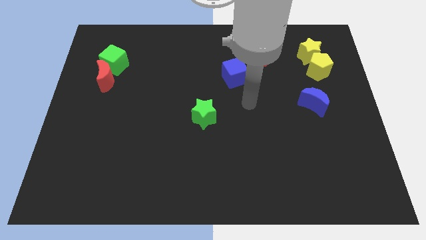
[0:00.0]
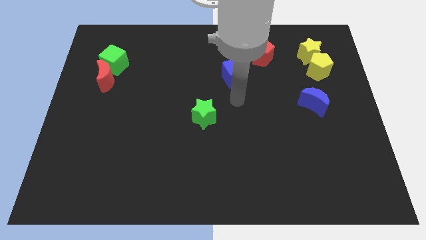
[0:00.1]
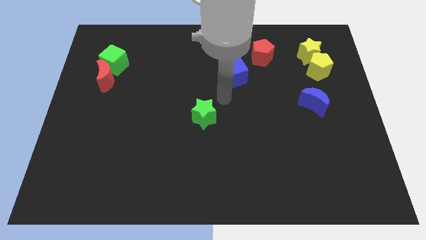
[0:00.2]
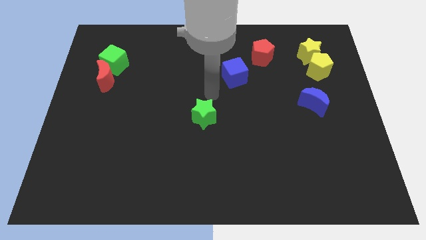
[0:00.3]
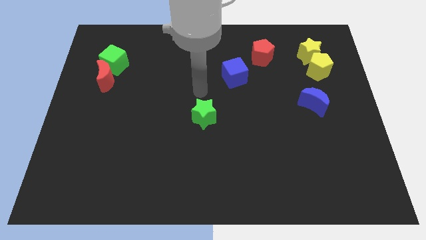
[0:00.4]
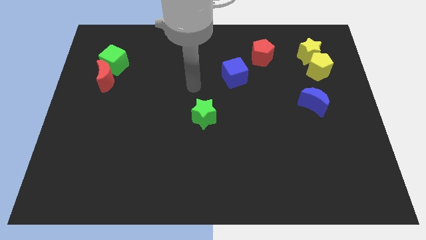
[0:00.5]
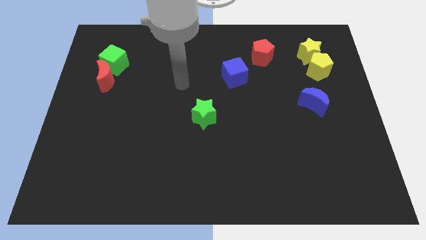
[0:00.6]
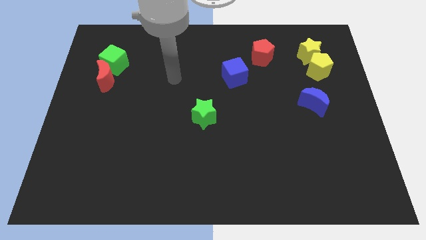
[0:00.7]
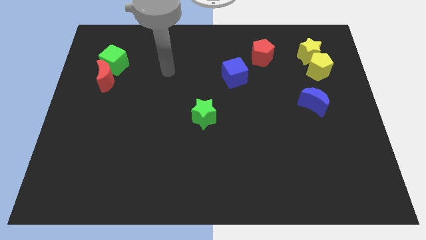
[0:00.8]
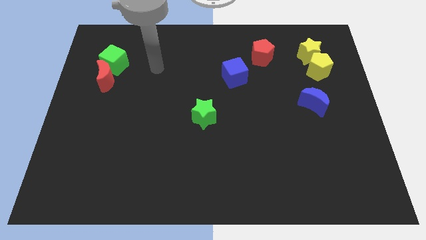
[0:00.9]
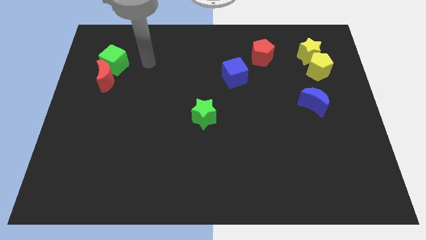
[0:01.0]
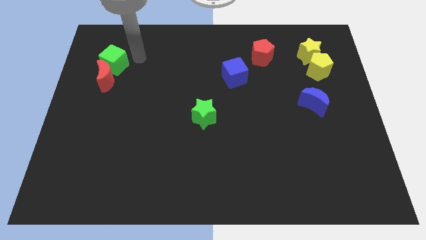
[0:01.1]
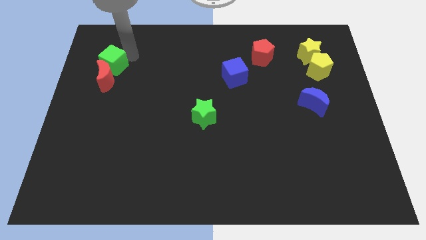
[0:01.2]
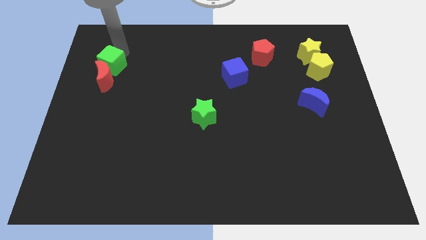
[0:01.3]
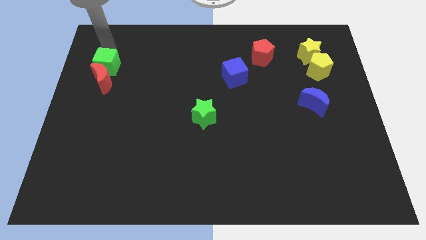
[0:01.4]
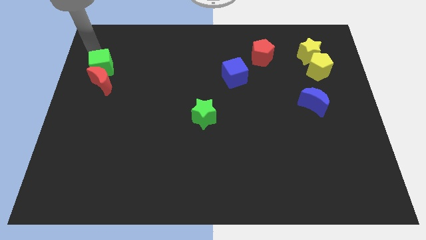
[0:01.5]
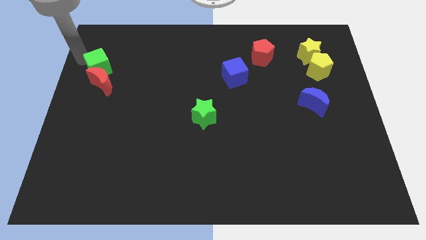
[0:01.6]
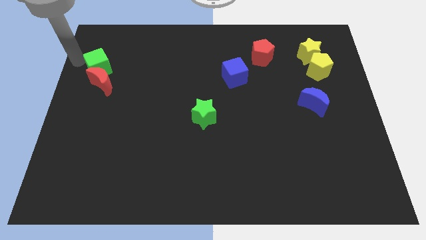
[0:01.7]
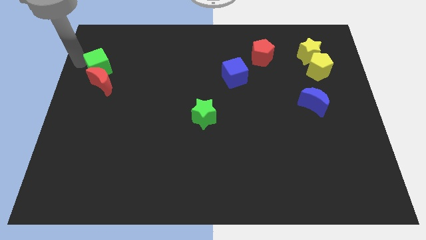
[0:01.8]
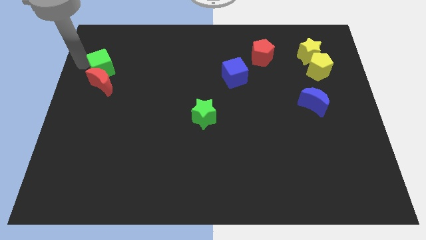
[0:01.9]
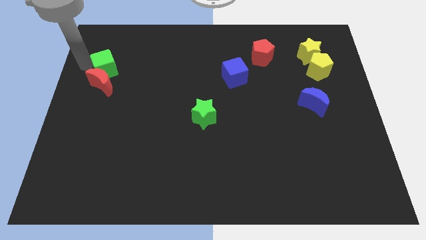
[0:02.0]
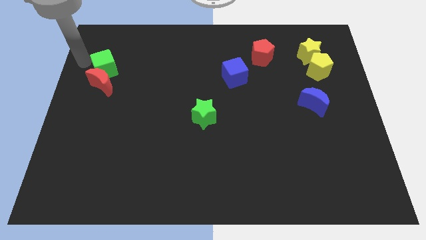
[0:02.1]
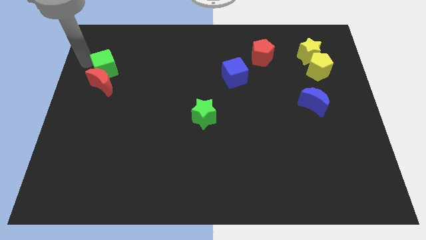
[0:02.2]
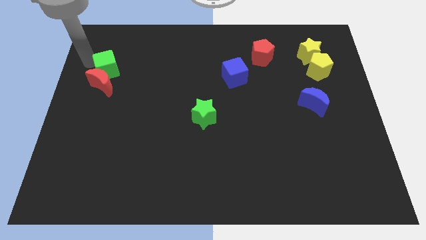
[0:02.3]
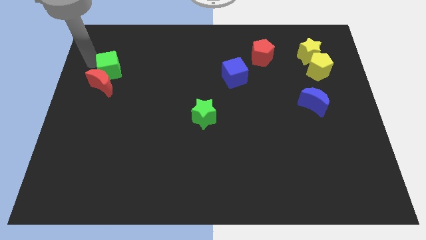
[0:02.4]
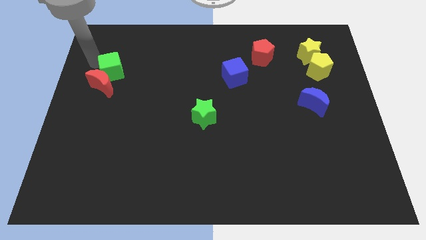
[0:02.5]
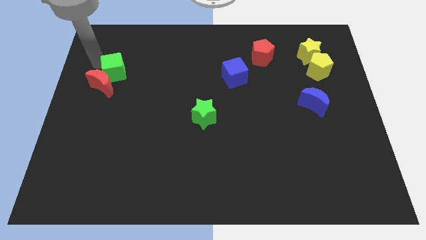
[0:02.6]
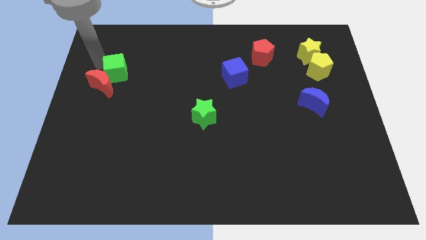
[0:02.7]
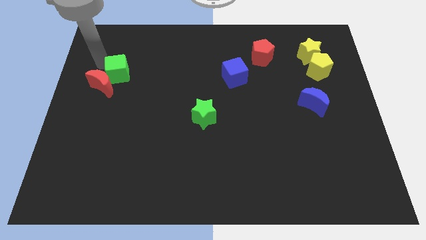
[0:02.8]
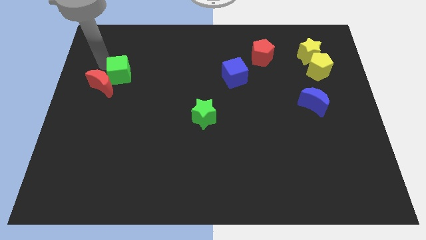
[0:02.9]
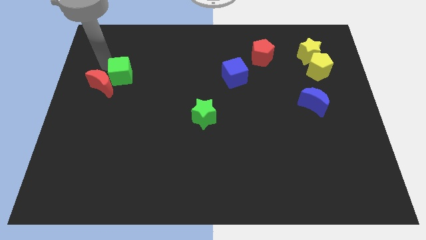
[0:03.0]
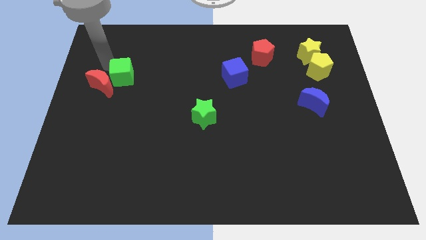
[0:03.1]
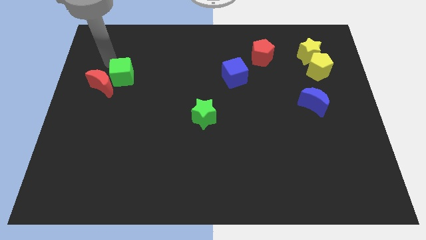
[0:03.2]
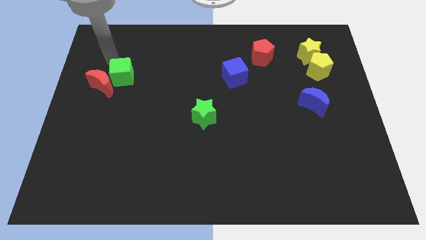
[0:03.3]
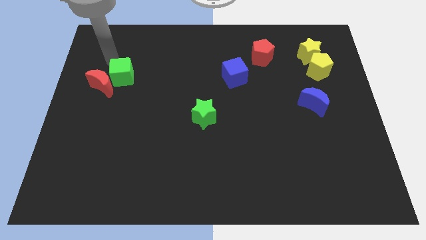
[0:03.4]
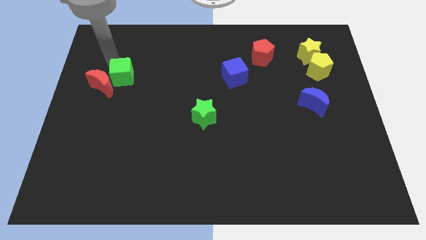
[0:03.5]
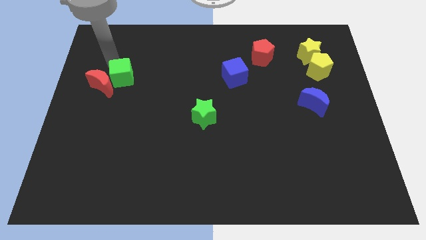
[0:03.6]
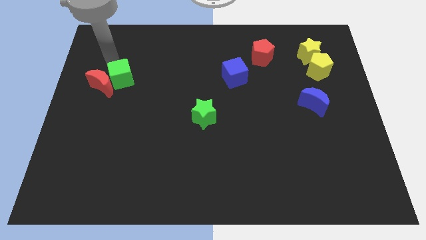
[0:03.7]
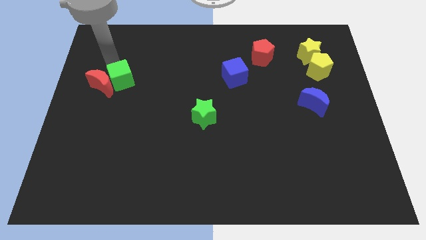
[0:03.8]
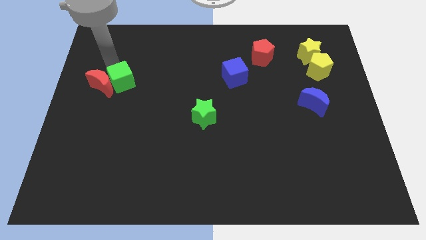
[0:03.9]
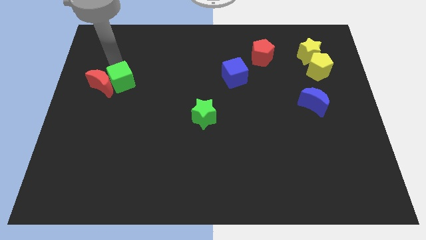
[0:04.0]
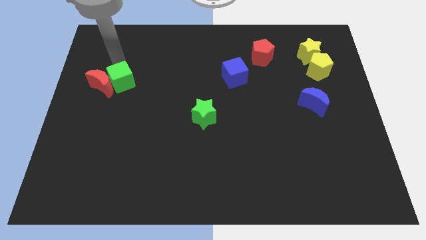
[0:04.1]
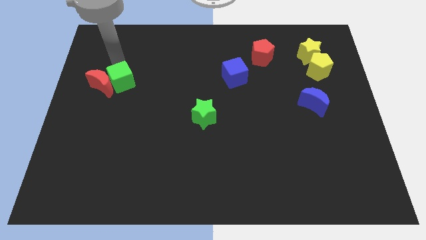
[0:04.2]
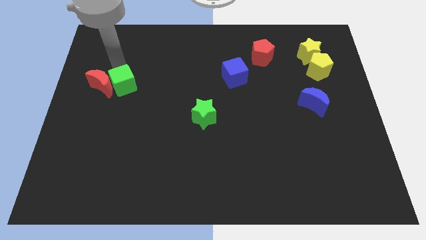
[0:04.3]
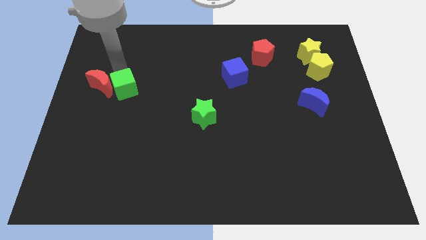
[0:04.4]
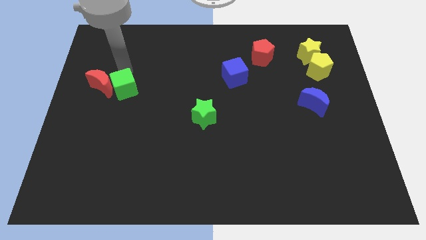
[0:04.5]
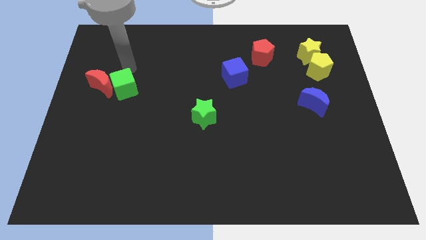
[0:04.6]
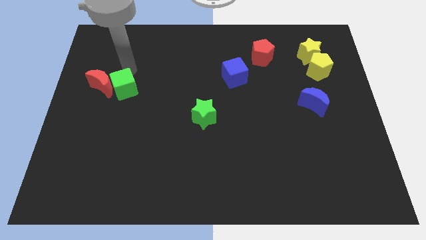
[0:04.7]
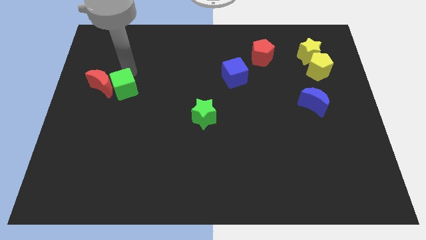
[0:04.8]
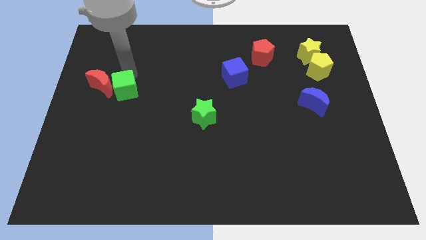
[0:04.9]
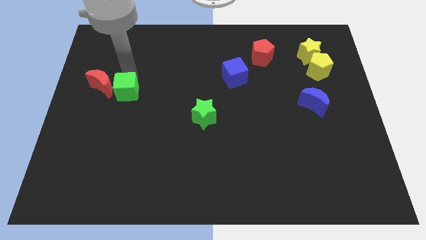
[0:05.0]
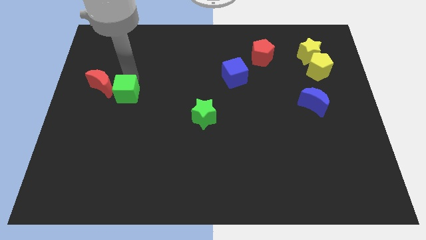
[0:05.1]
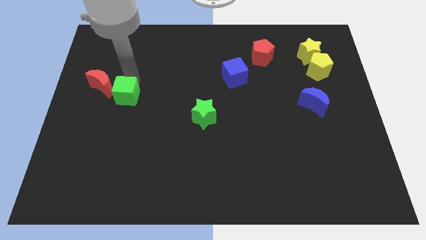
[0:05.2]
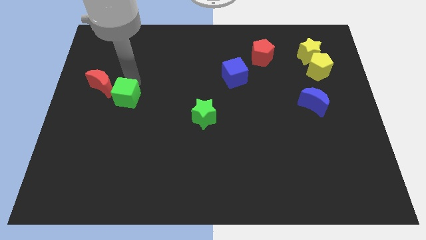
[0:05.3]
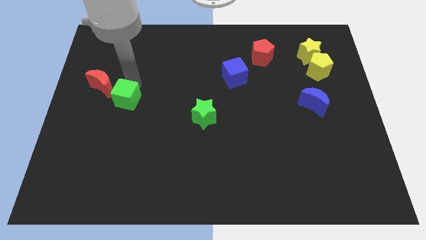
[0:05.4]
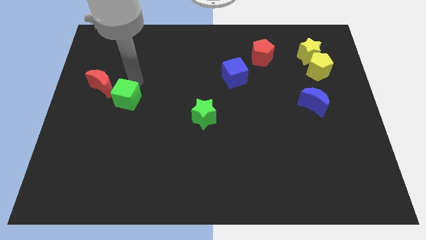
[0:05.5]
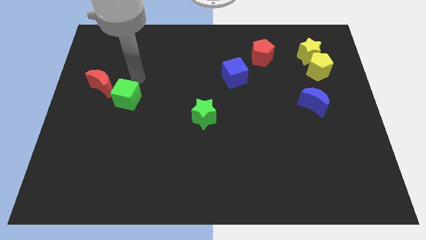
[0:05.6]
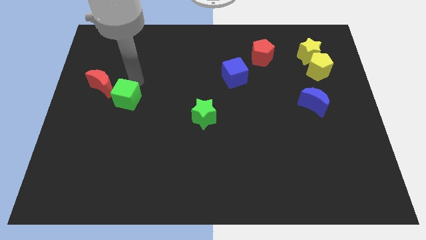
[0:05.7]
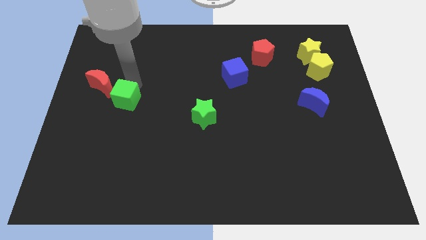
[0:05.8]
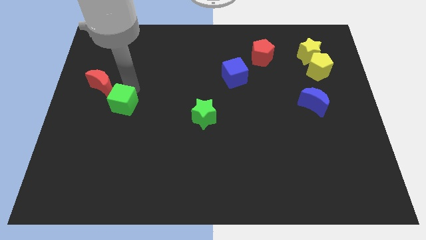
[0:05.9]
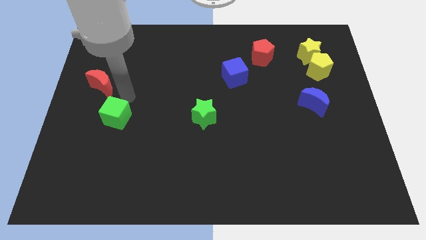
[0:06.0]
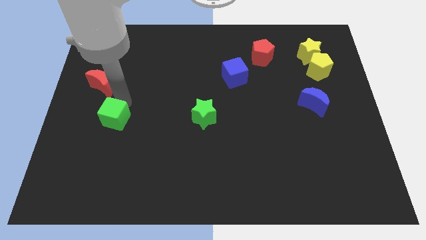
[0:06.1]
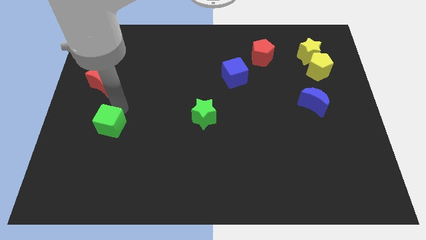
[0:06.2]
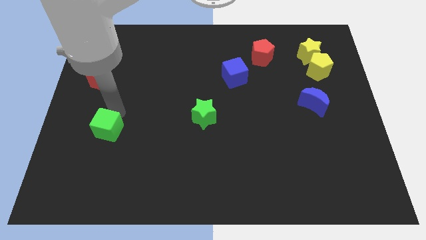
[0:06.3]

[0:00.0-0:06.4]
slide the green cube down

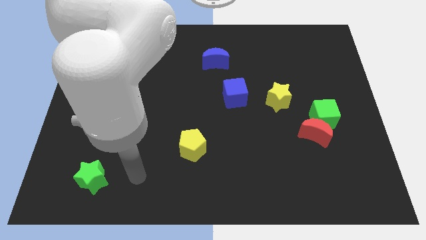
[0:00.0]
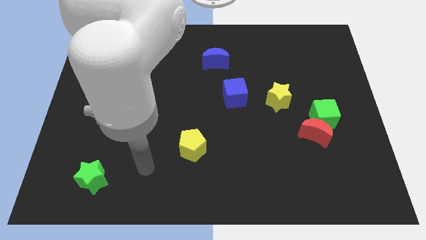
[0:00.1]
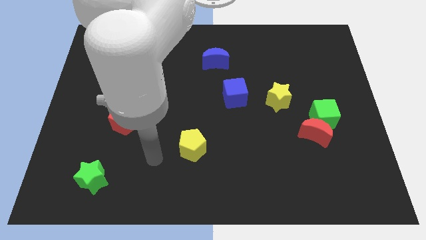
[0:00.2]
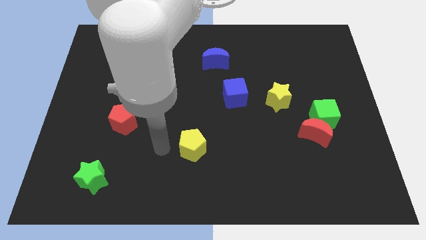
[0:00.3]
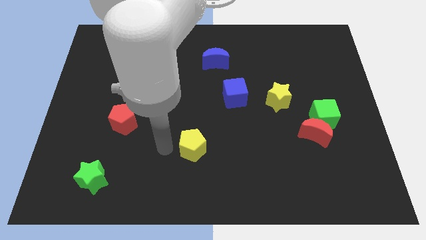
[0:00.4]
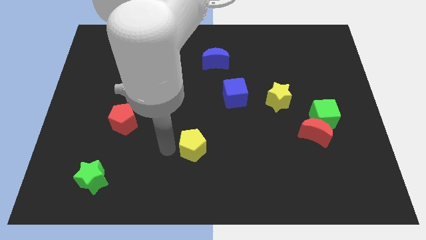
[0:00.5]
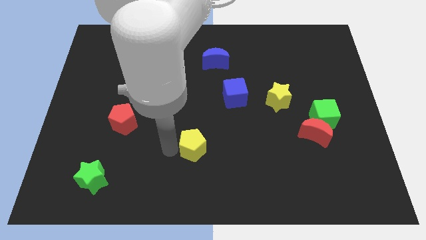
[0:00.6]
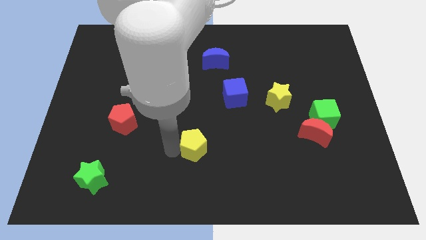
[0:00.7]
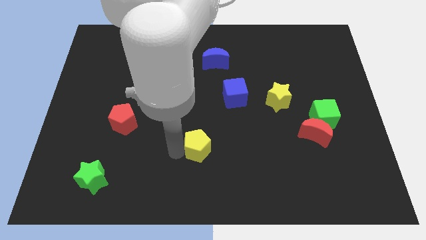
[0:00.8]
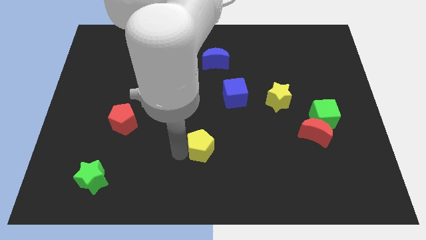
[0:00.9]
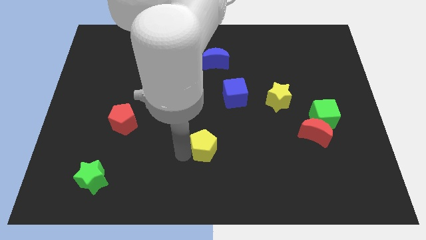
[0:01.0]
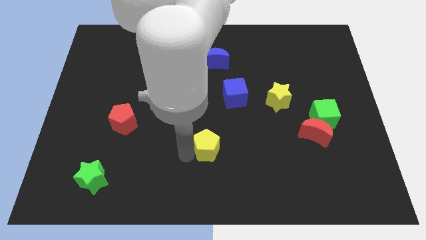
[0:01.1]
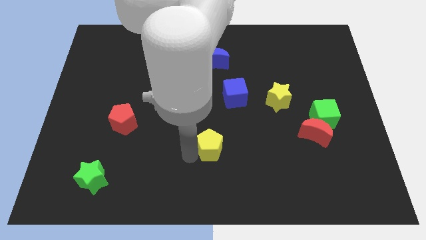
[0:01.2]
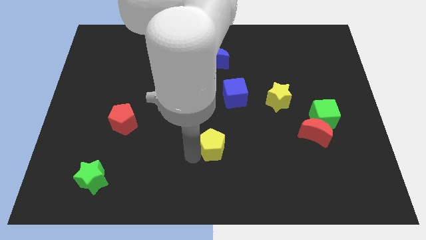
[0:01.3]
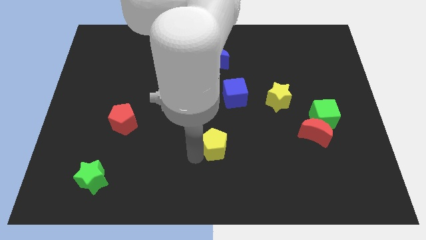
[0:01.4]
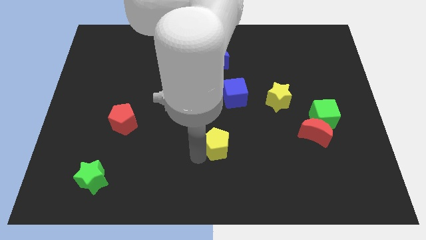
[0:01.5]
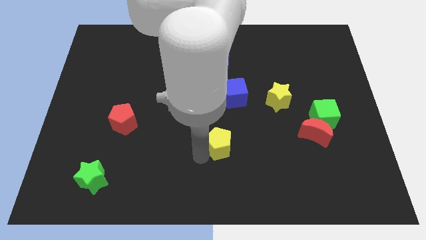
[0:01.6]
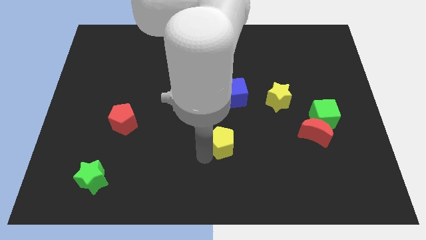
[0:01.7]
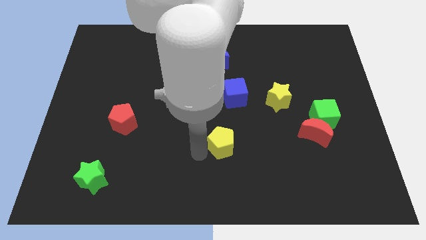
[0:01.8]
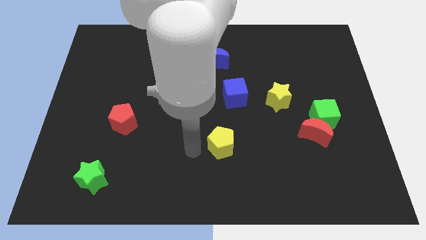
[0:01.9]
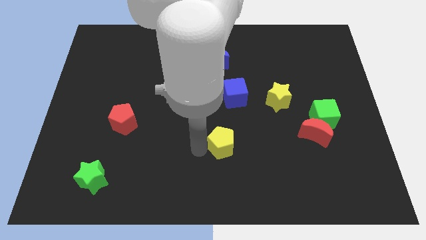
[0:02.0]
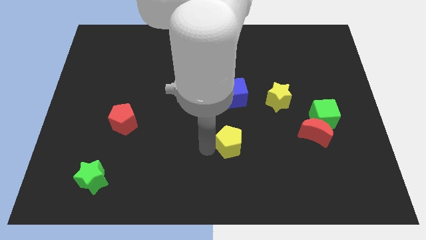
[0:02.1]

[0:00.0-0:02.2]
push the yellow pentagon to the right a bit
